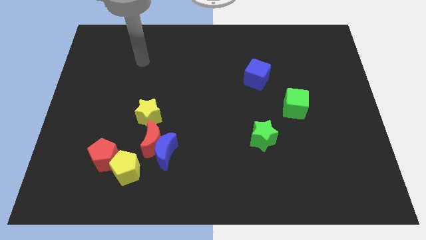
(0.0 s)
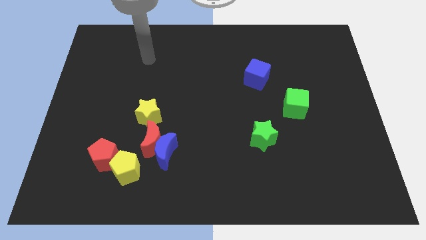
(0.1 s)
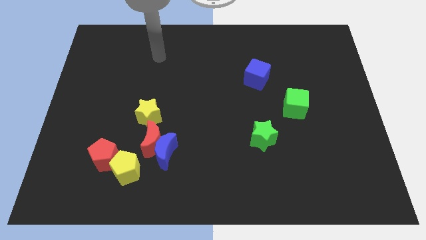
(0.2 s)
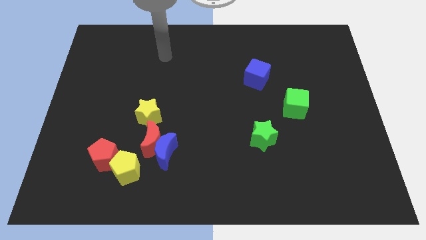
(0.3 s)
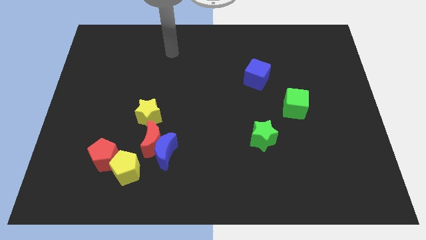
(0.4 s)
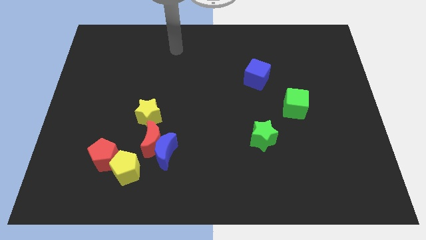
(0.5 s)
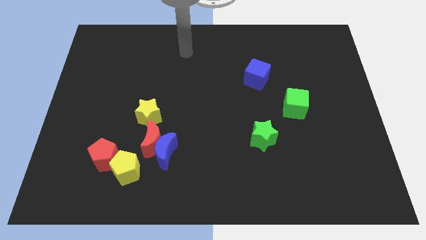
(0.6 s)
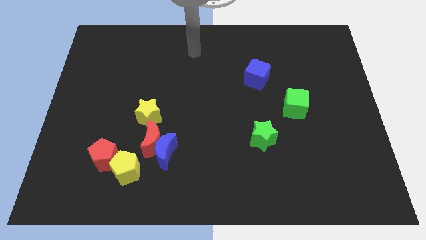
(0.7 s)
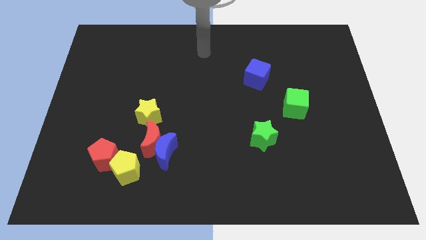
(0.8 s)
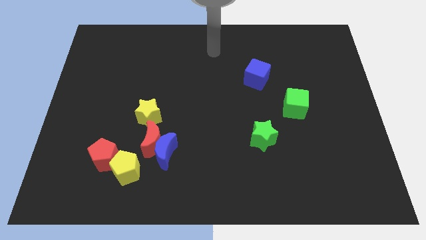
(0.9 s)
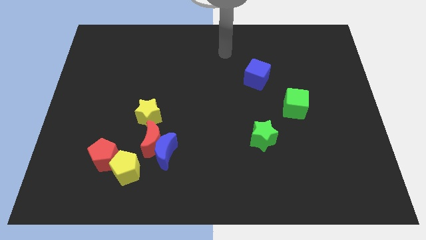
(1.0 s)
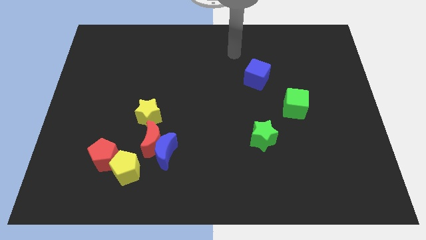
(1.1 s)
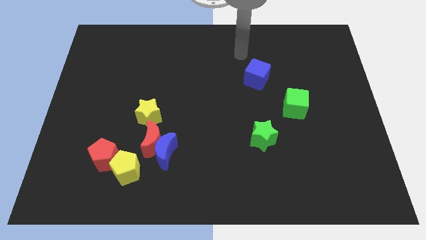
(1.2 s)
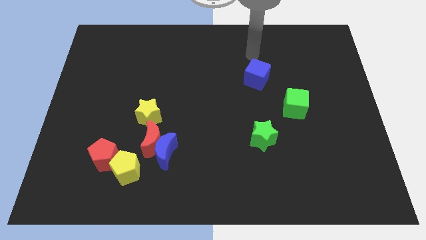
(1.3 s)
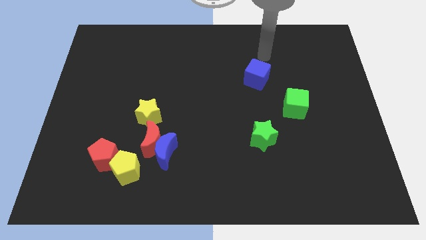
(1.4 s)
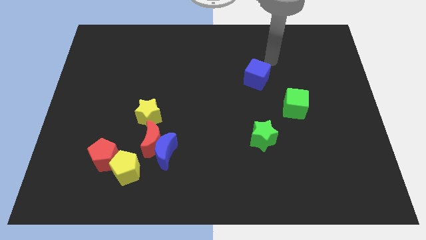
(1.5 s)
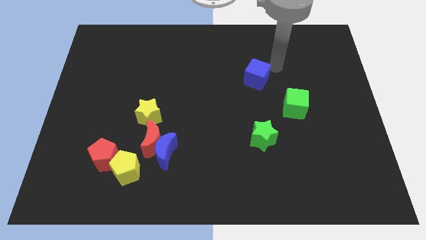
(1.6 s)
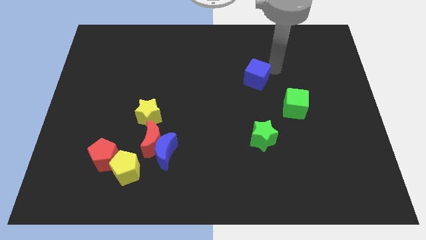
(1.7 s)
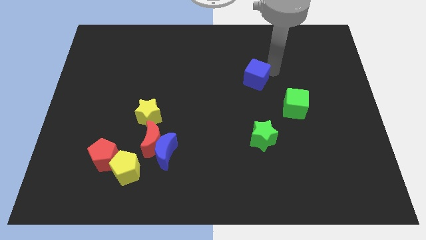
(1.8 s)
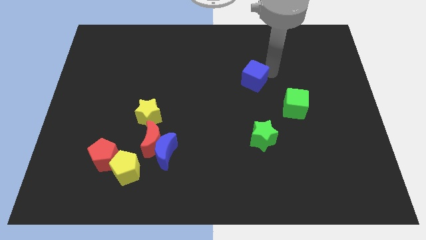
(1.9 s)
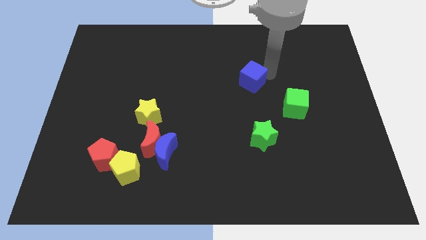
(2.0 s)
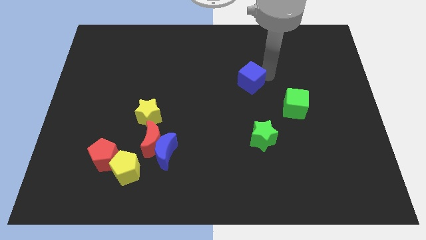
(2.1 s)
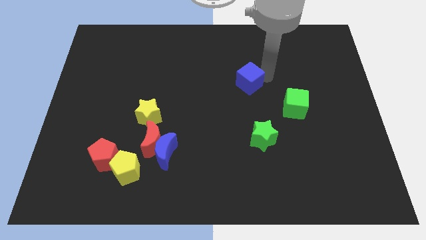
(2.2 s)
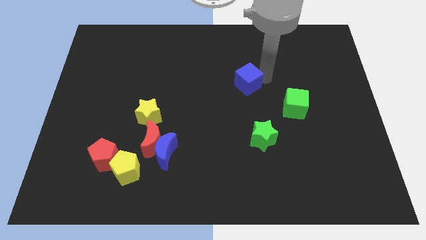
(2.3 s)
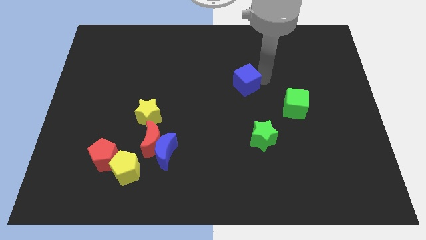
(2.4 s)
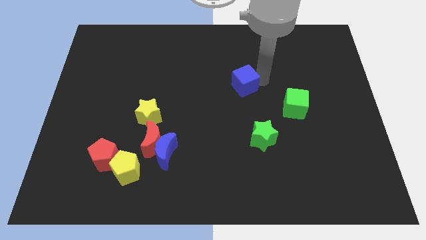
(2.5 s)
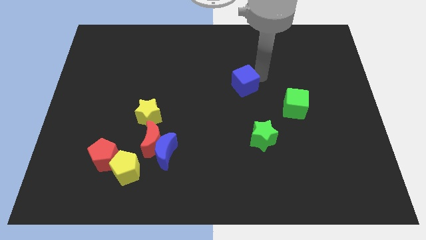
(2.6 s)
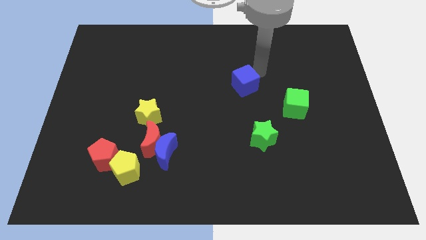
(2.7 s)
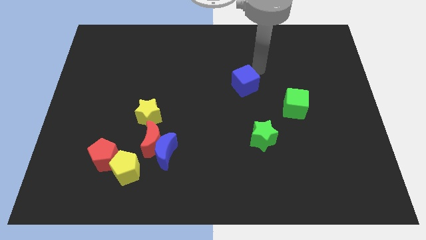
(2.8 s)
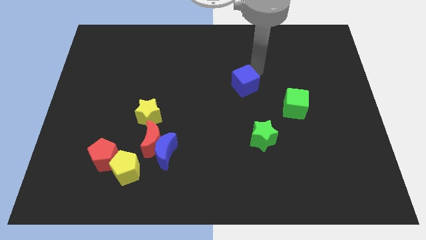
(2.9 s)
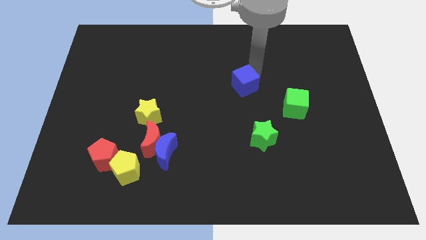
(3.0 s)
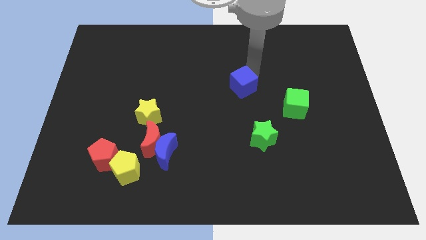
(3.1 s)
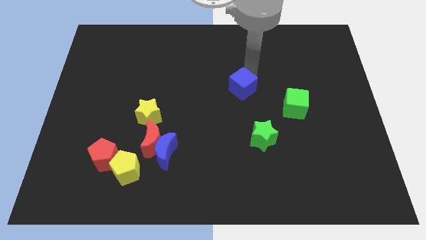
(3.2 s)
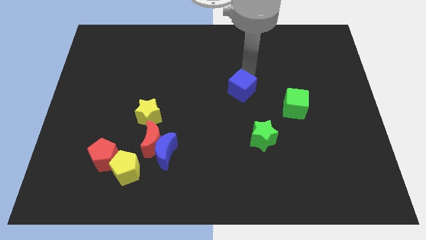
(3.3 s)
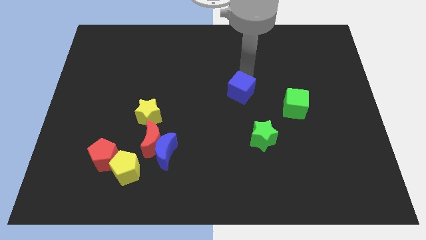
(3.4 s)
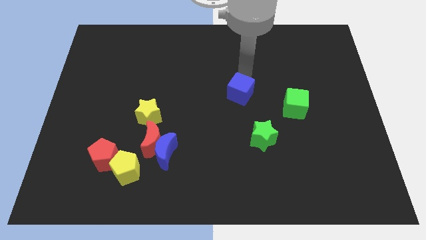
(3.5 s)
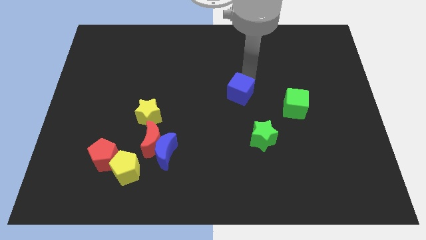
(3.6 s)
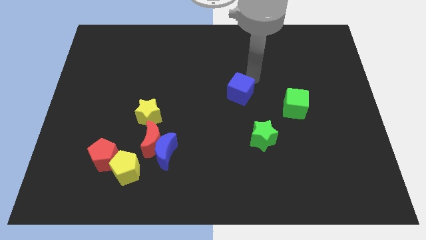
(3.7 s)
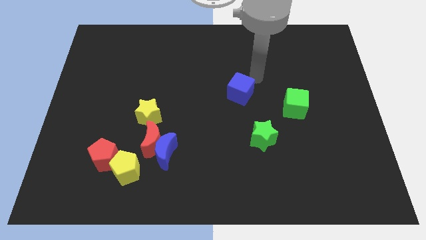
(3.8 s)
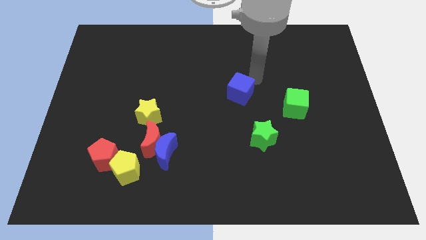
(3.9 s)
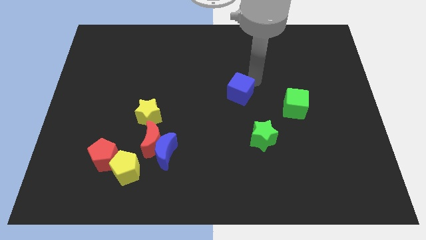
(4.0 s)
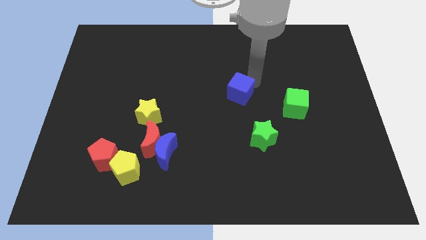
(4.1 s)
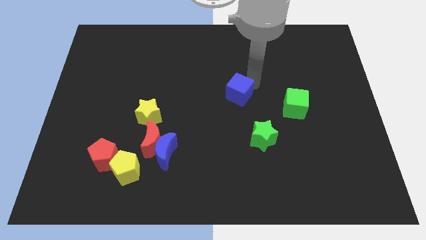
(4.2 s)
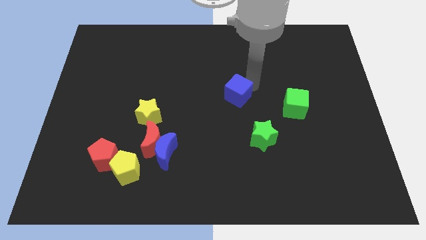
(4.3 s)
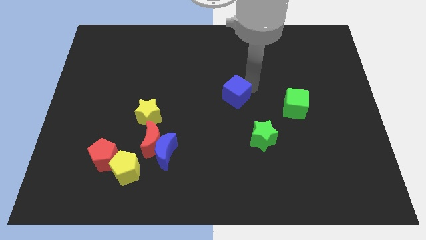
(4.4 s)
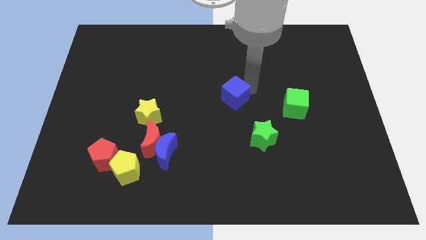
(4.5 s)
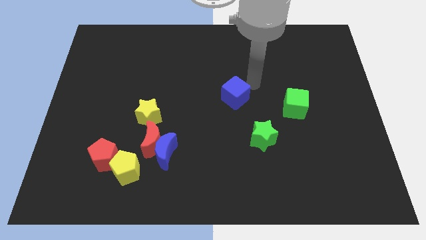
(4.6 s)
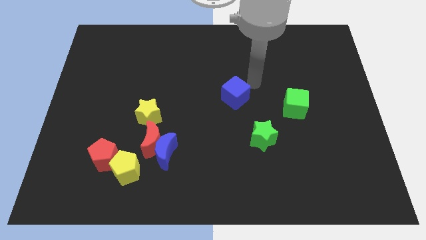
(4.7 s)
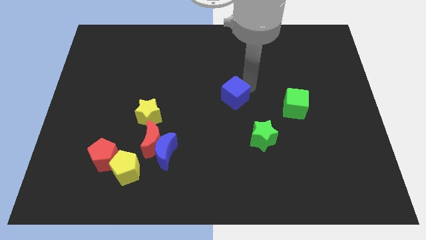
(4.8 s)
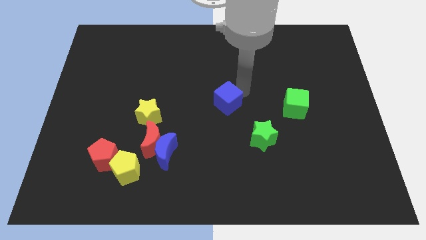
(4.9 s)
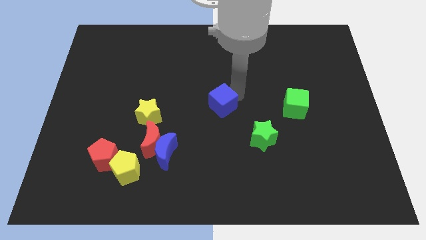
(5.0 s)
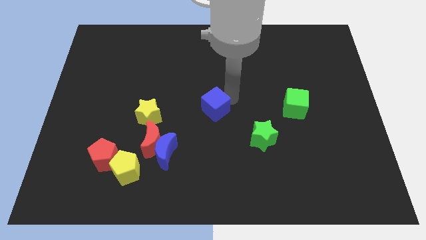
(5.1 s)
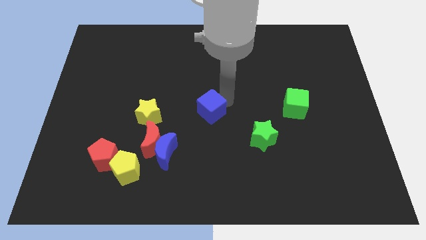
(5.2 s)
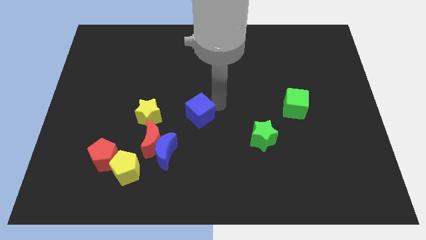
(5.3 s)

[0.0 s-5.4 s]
move the blue cube to the top right of the blue moon

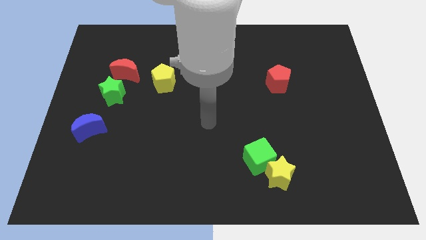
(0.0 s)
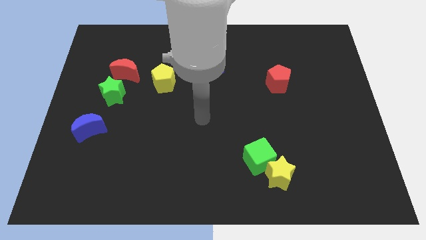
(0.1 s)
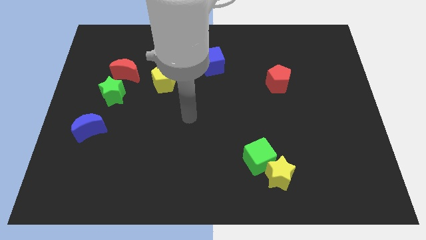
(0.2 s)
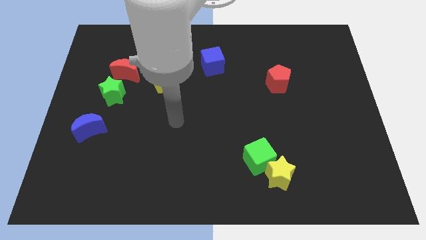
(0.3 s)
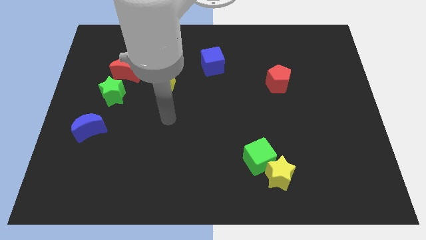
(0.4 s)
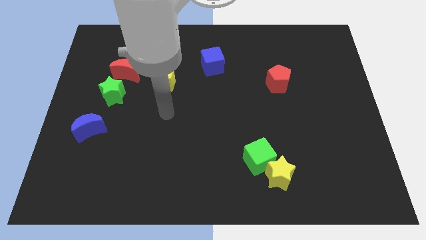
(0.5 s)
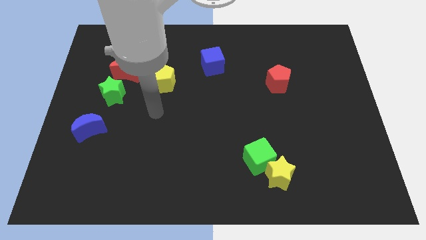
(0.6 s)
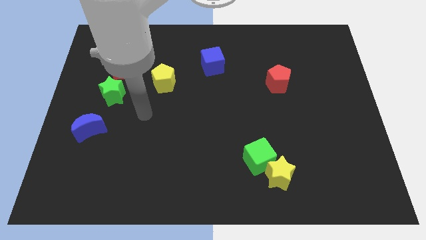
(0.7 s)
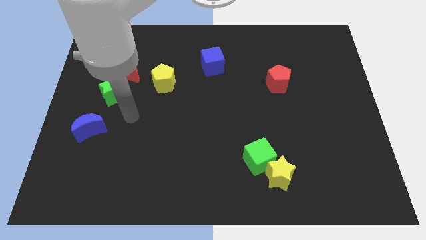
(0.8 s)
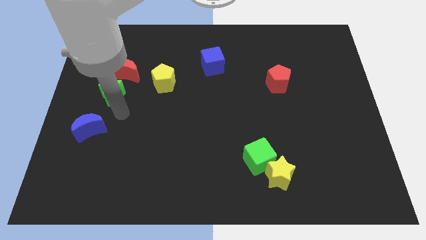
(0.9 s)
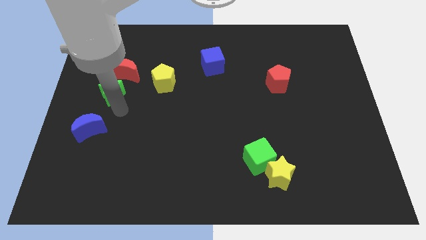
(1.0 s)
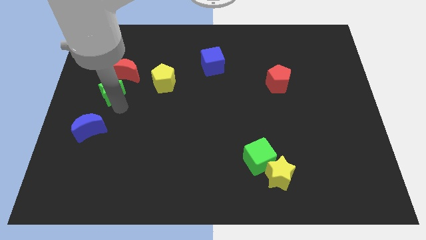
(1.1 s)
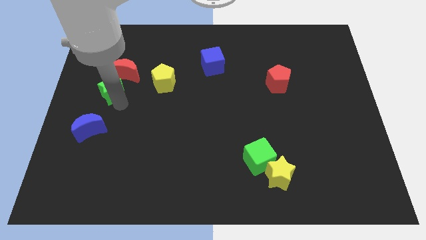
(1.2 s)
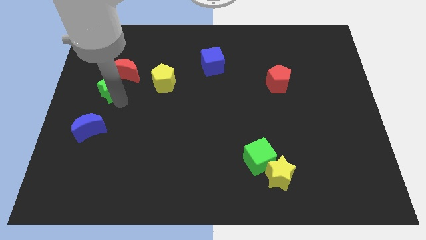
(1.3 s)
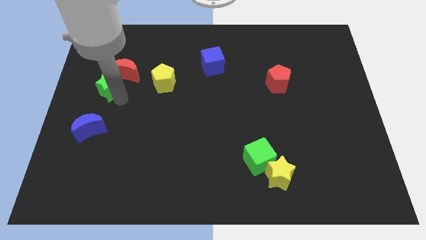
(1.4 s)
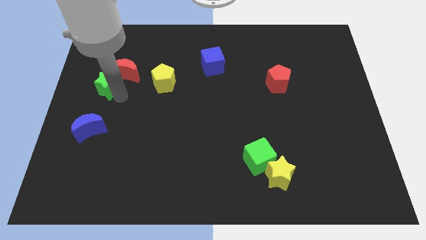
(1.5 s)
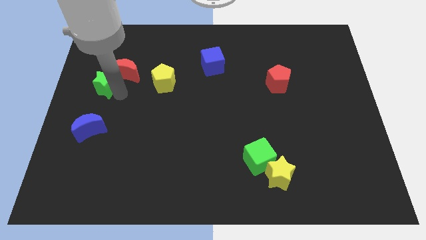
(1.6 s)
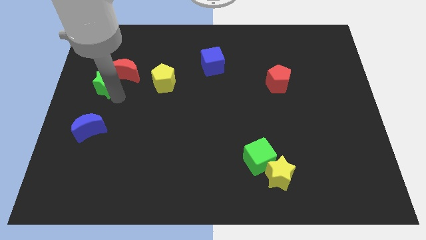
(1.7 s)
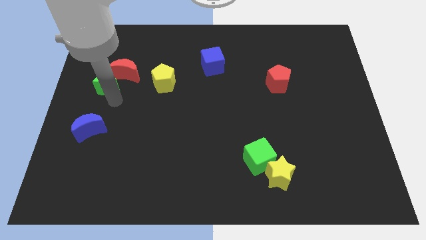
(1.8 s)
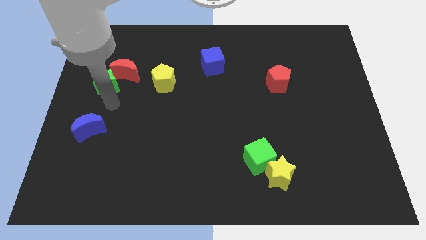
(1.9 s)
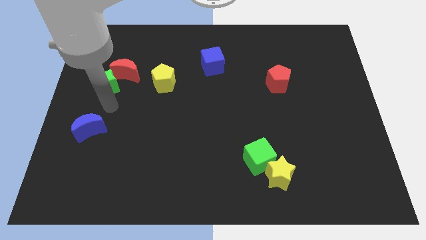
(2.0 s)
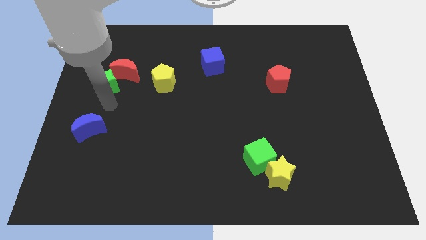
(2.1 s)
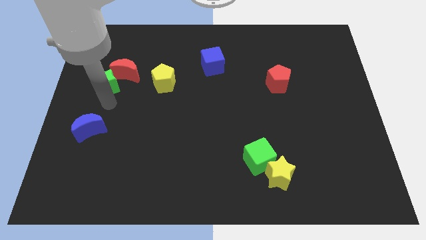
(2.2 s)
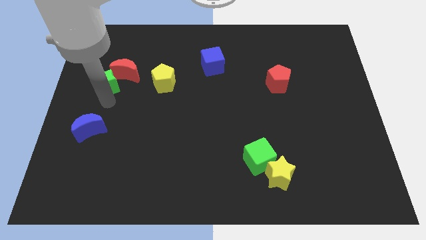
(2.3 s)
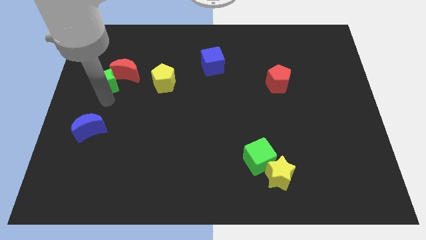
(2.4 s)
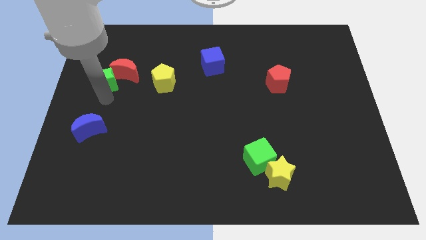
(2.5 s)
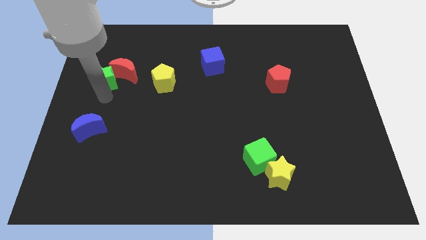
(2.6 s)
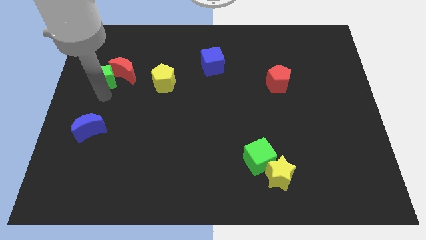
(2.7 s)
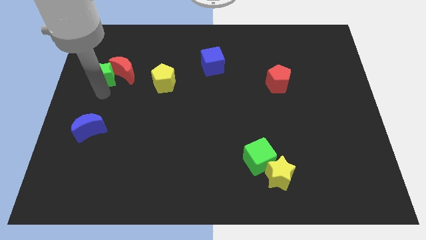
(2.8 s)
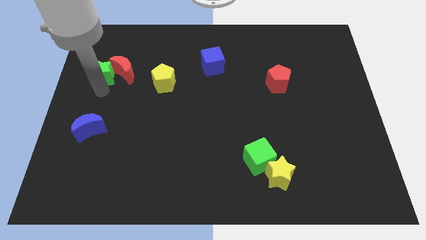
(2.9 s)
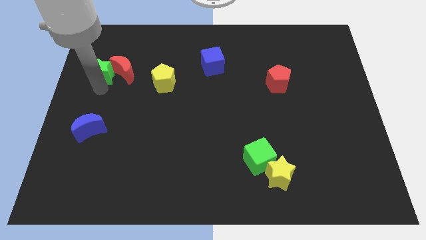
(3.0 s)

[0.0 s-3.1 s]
push the green star to the top left side of the red moon
